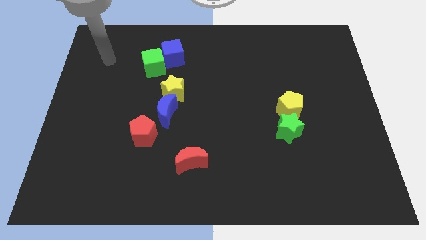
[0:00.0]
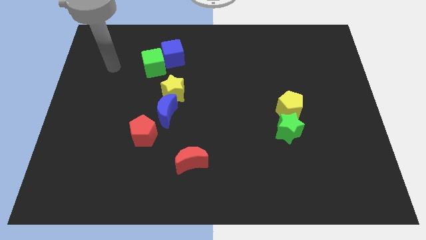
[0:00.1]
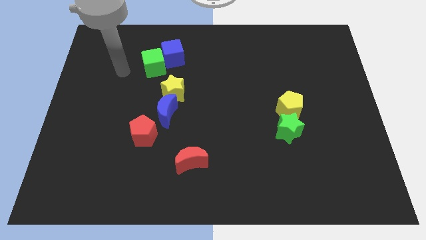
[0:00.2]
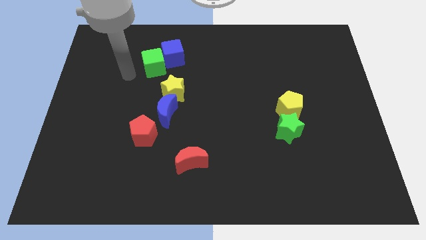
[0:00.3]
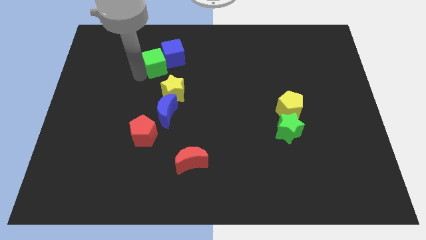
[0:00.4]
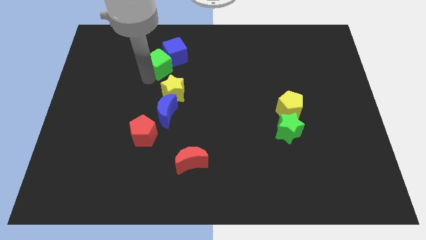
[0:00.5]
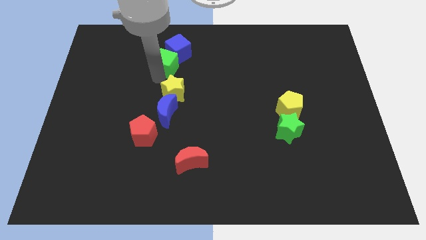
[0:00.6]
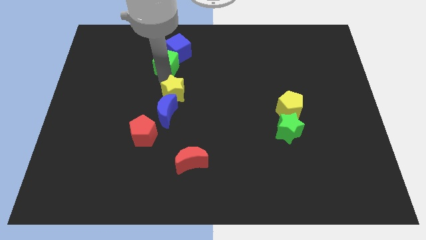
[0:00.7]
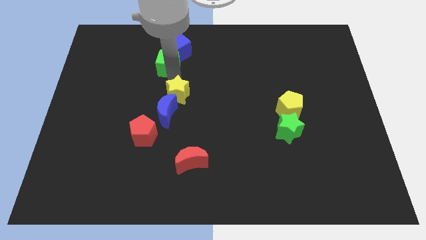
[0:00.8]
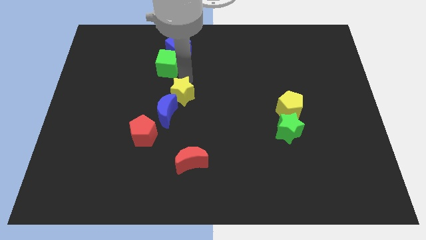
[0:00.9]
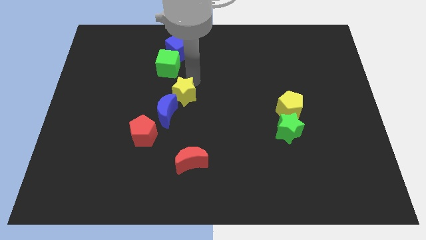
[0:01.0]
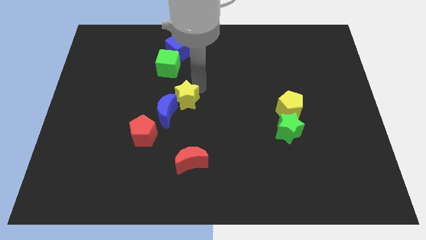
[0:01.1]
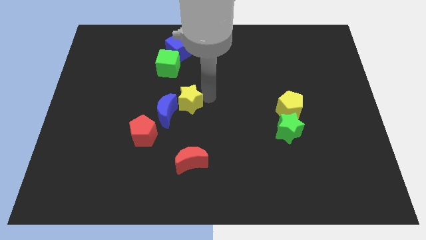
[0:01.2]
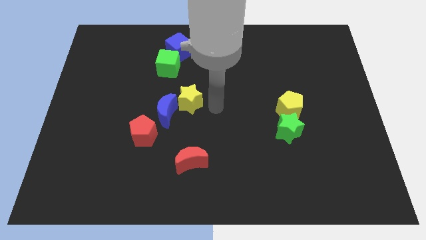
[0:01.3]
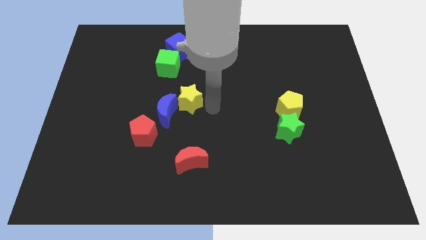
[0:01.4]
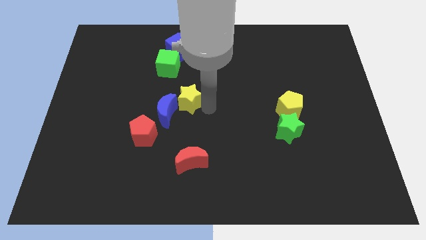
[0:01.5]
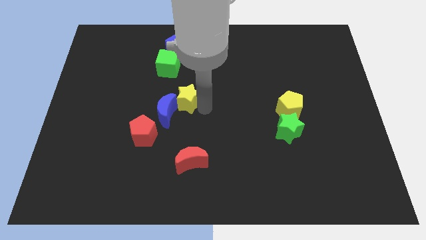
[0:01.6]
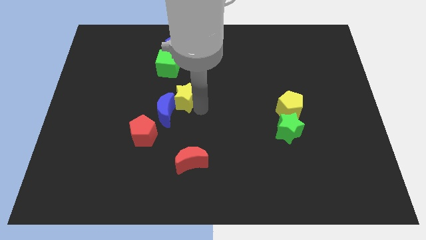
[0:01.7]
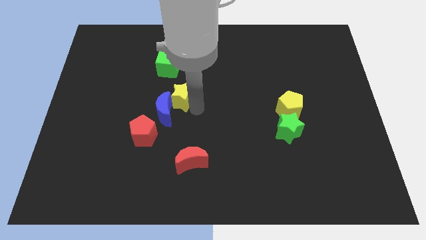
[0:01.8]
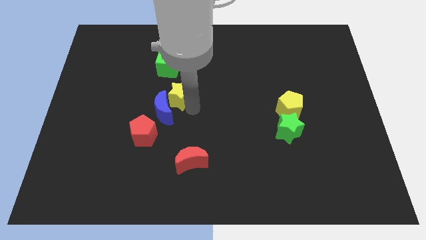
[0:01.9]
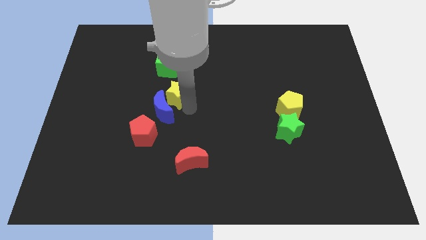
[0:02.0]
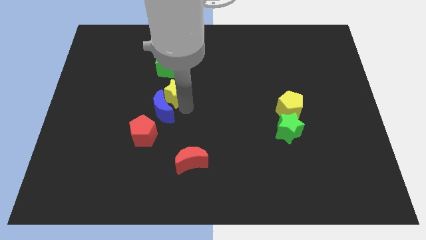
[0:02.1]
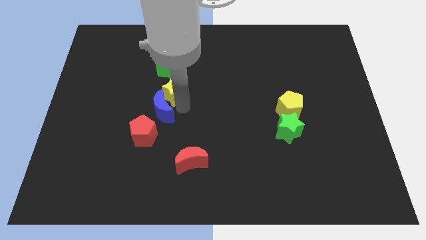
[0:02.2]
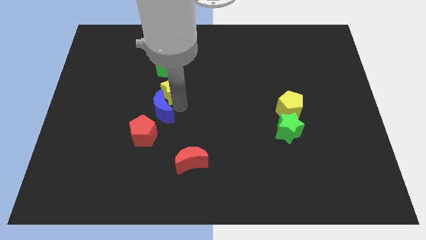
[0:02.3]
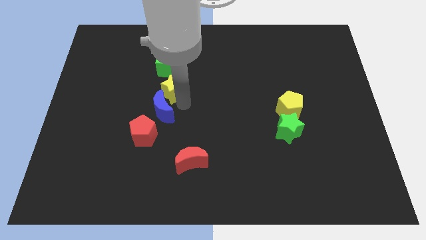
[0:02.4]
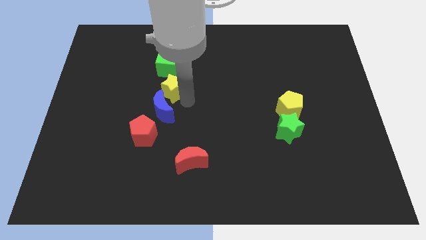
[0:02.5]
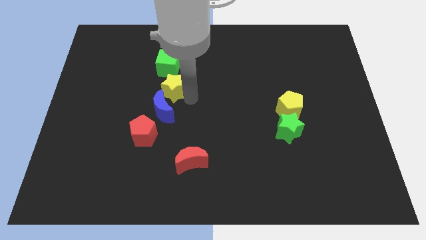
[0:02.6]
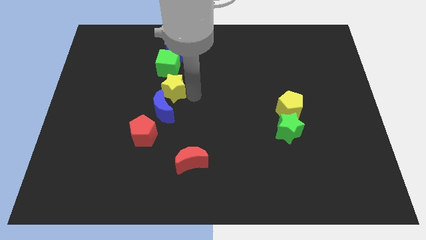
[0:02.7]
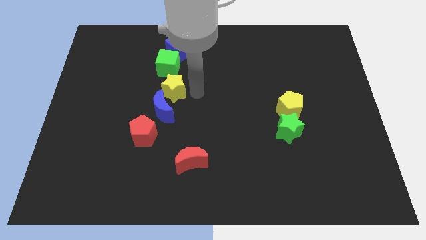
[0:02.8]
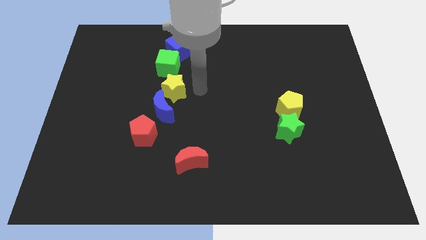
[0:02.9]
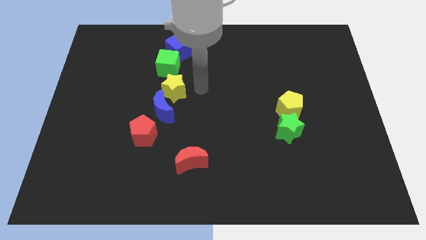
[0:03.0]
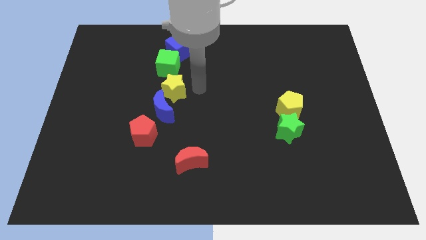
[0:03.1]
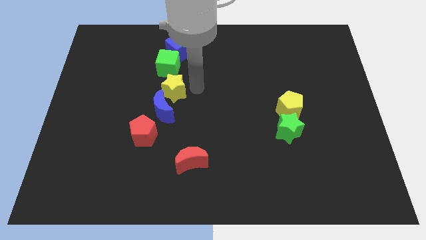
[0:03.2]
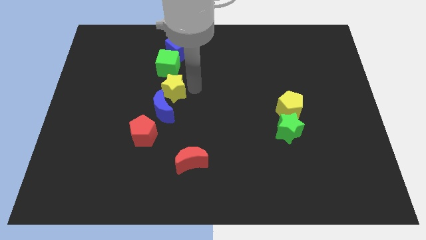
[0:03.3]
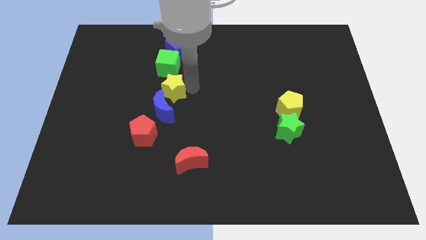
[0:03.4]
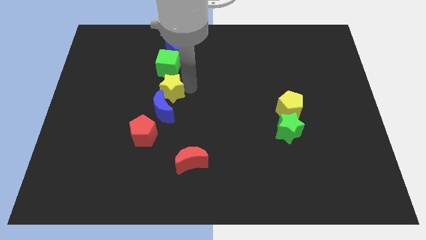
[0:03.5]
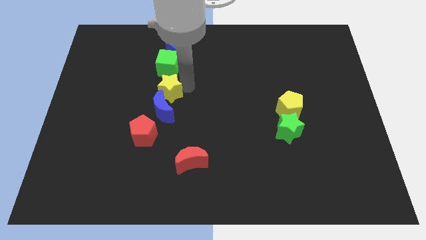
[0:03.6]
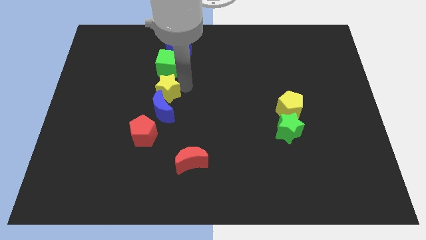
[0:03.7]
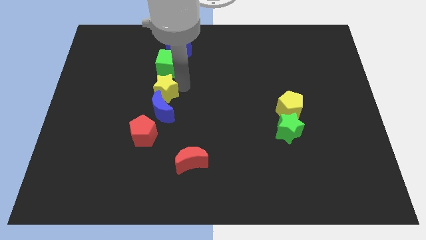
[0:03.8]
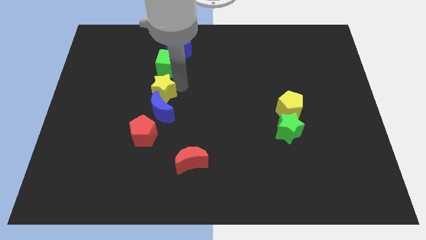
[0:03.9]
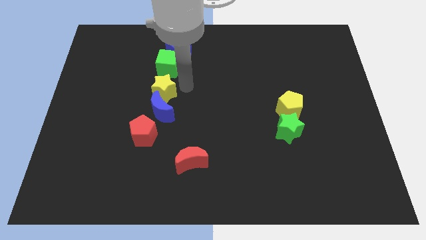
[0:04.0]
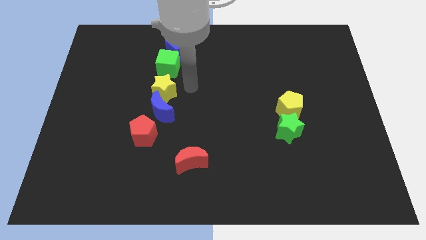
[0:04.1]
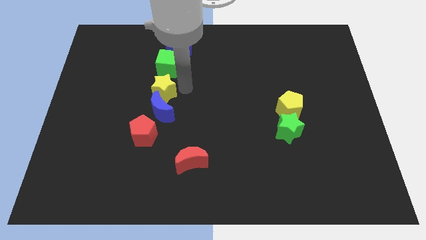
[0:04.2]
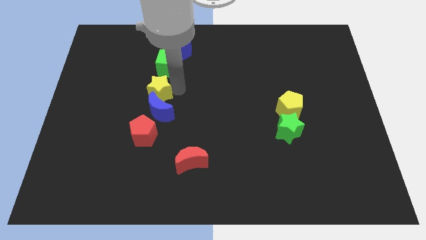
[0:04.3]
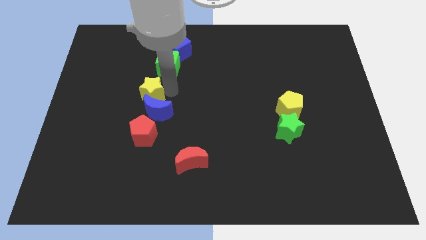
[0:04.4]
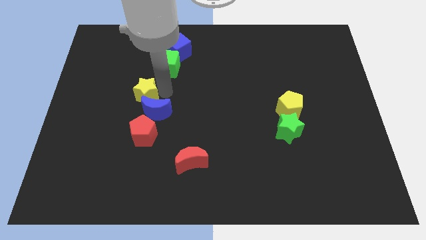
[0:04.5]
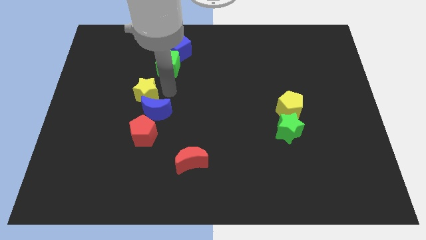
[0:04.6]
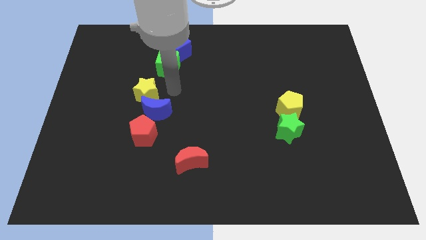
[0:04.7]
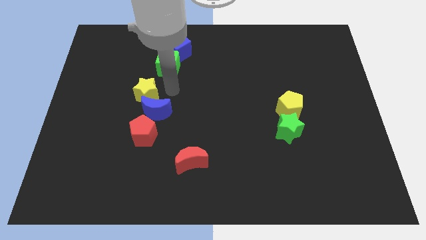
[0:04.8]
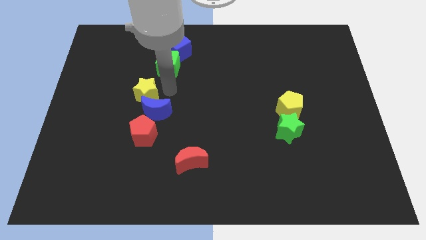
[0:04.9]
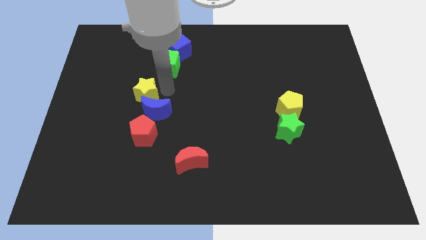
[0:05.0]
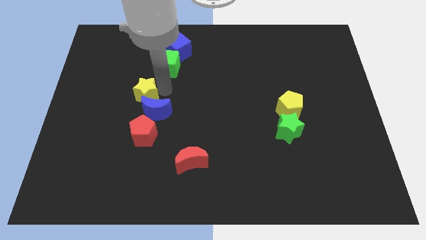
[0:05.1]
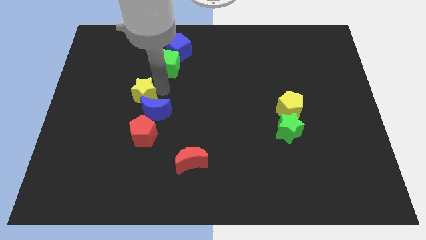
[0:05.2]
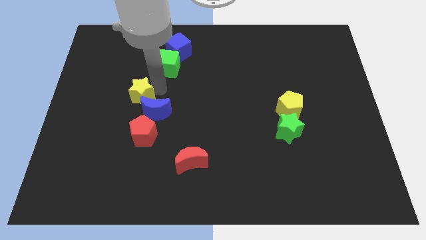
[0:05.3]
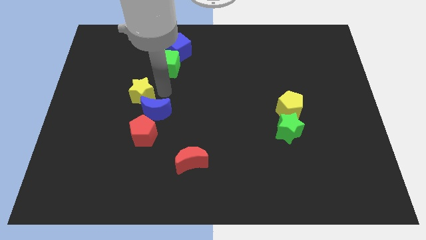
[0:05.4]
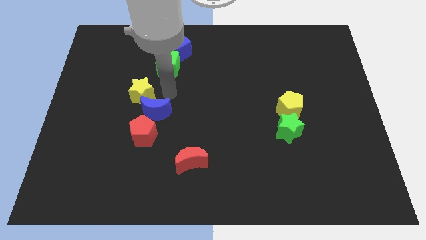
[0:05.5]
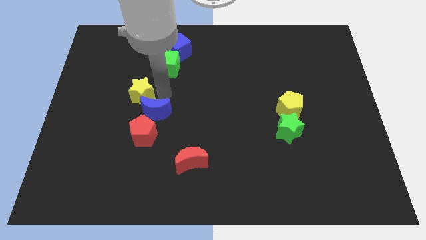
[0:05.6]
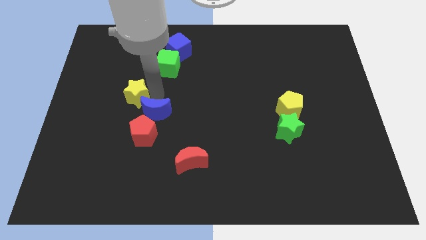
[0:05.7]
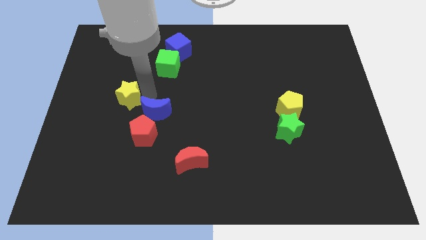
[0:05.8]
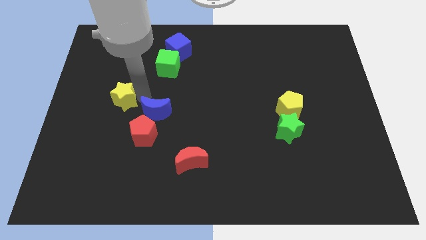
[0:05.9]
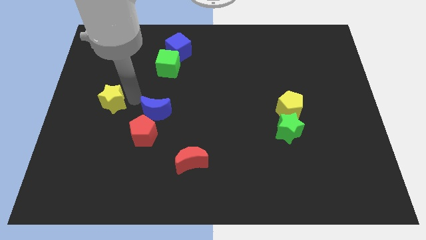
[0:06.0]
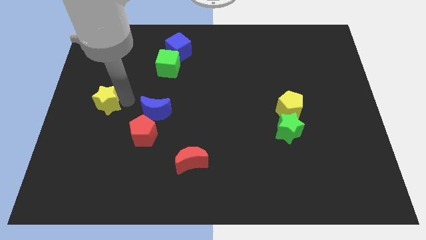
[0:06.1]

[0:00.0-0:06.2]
move the yellow star to the center left

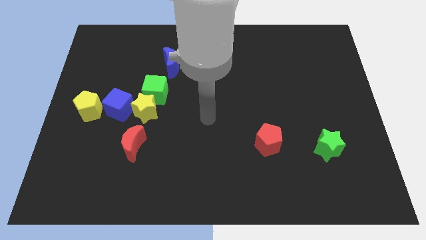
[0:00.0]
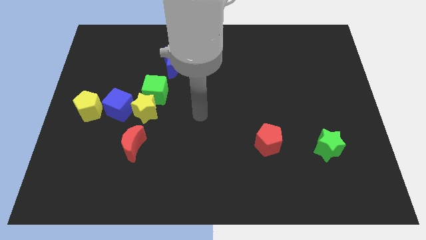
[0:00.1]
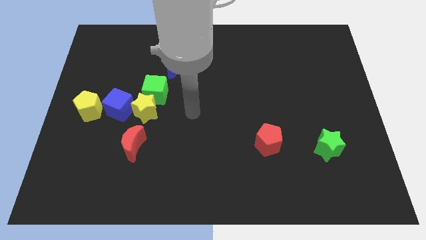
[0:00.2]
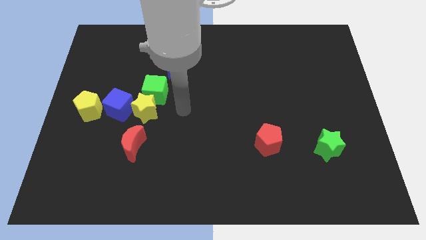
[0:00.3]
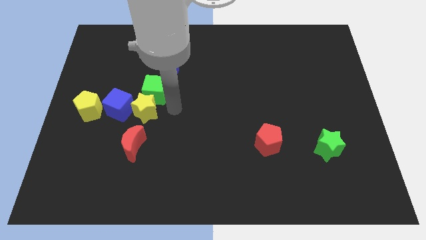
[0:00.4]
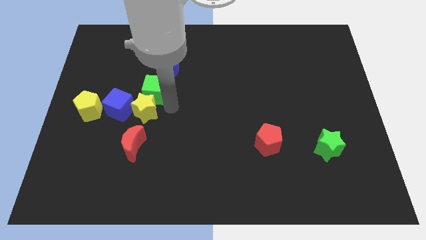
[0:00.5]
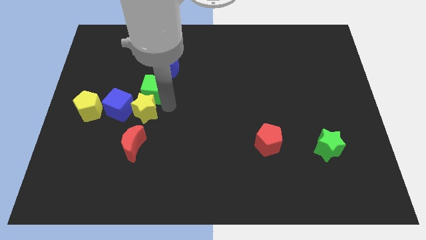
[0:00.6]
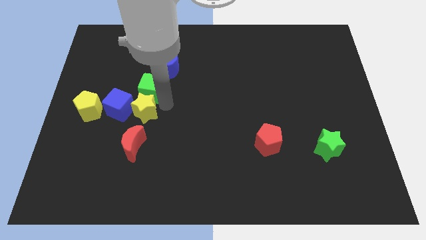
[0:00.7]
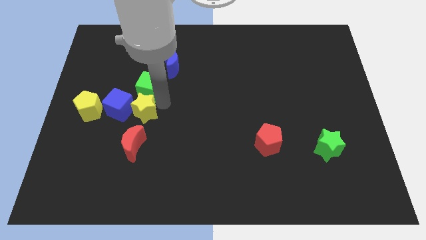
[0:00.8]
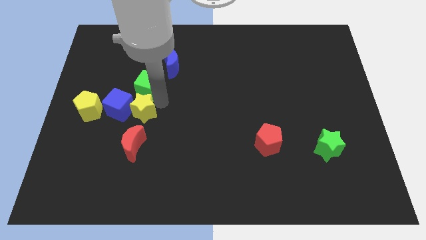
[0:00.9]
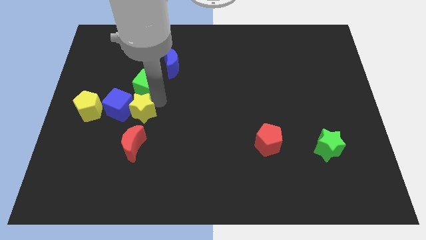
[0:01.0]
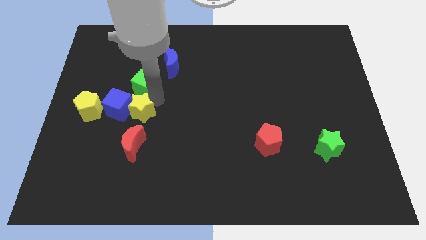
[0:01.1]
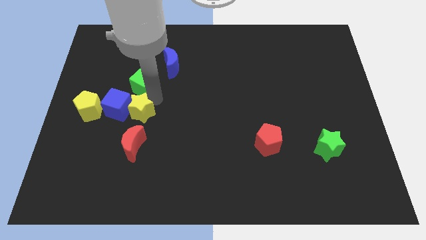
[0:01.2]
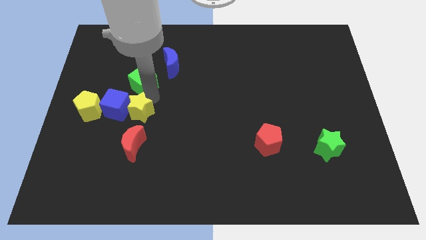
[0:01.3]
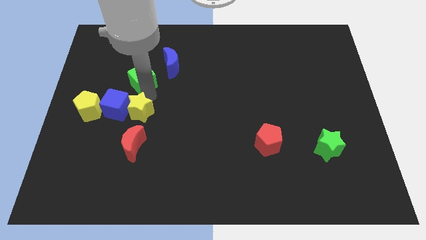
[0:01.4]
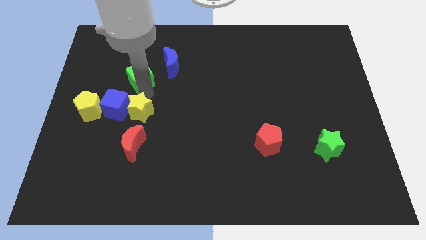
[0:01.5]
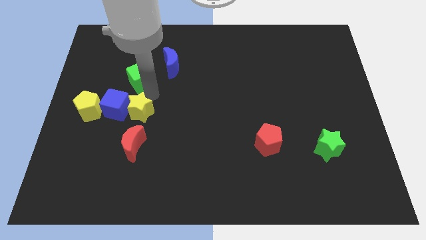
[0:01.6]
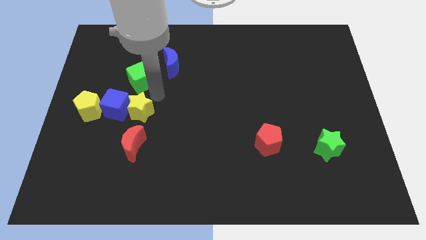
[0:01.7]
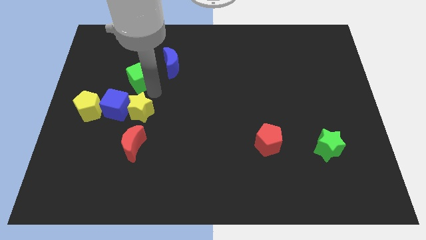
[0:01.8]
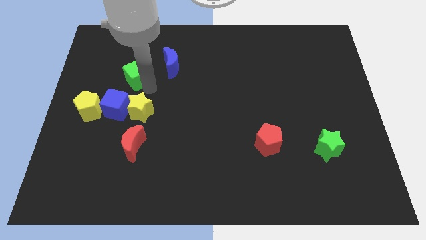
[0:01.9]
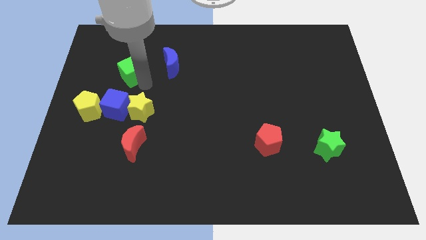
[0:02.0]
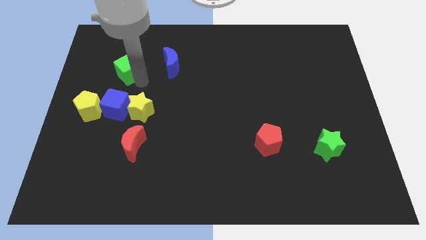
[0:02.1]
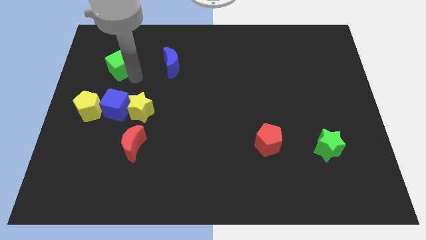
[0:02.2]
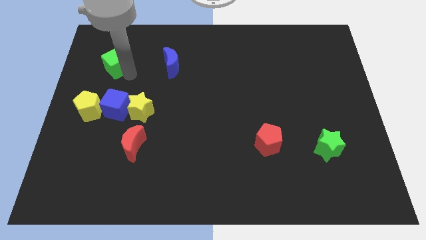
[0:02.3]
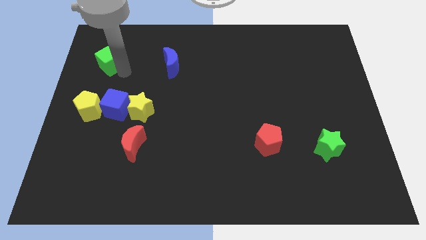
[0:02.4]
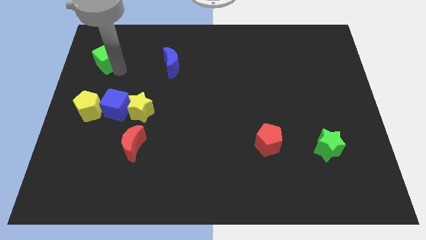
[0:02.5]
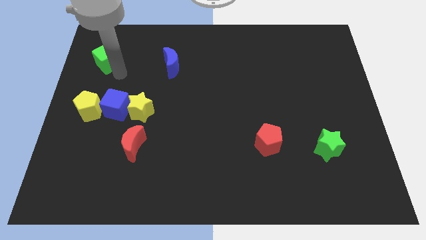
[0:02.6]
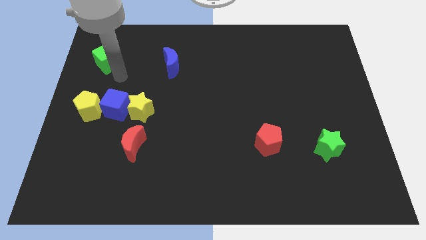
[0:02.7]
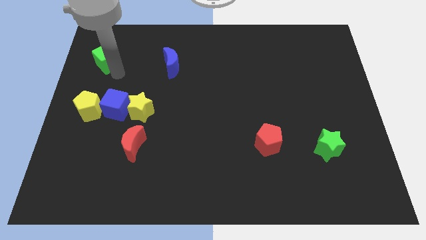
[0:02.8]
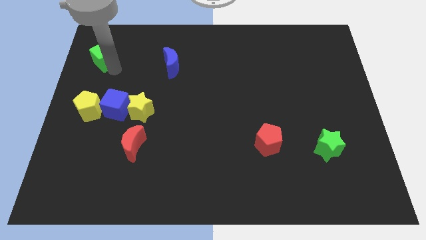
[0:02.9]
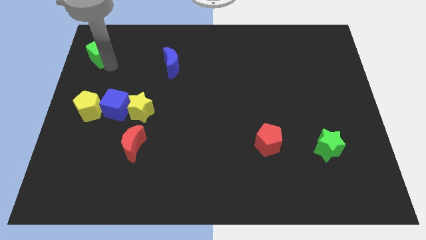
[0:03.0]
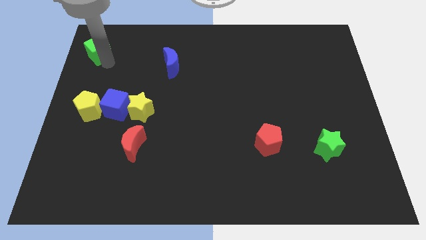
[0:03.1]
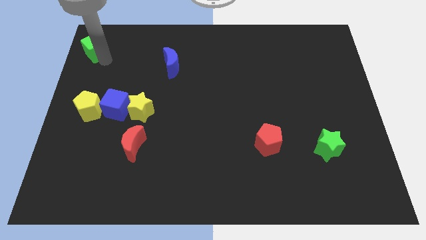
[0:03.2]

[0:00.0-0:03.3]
push the green cube to the top left
